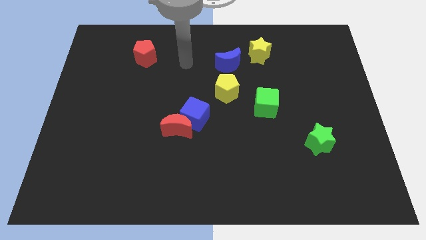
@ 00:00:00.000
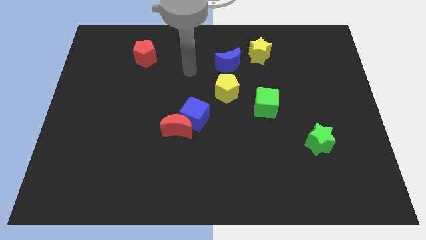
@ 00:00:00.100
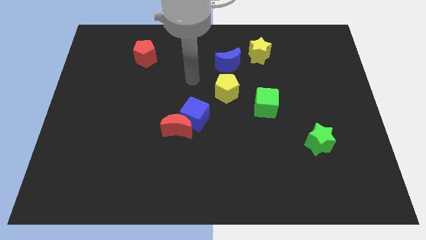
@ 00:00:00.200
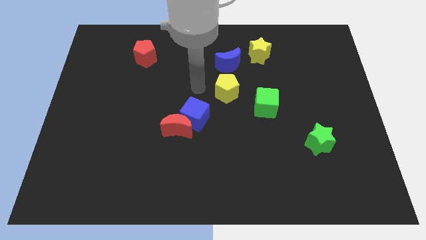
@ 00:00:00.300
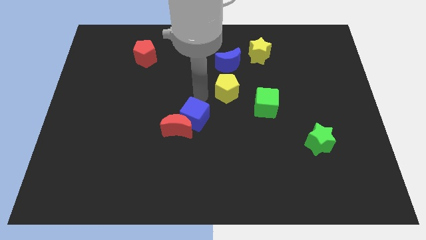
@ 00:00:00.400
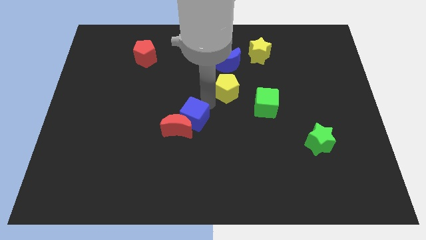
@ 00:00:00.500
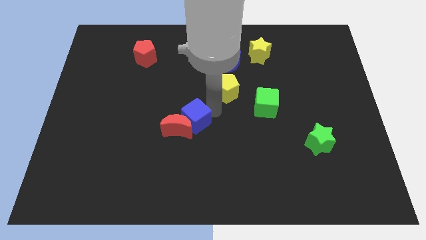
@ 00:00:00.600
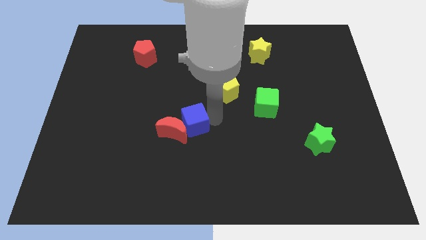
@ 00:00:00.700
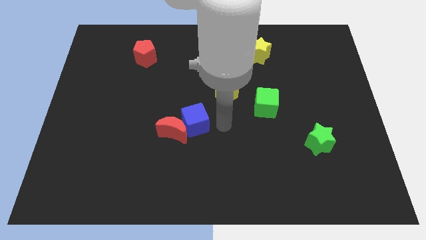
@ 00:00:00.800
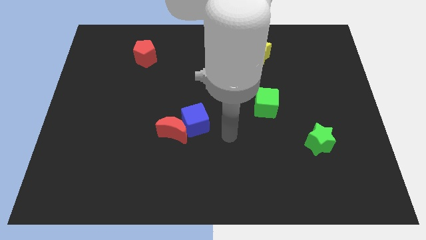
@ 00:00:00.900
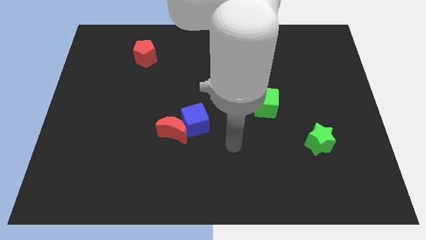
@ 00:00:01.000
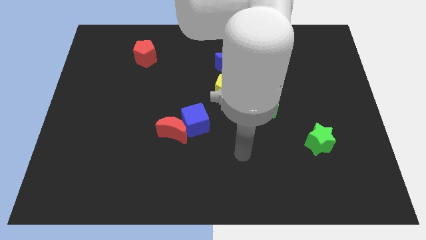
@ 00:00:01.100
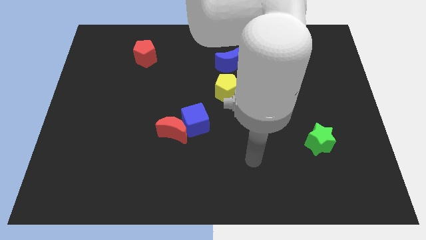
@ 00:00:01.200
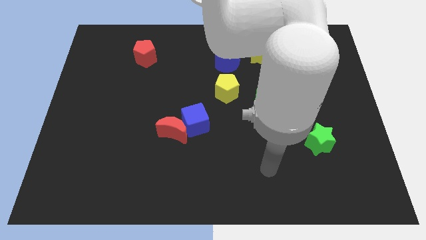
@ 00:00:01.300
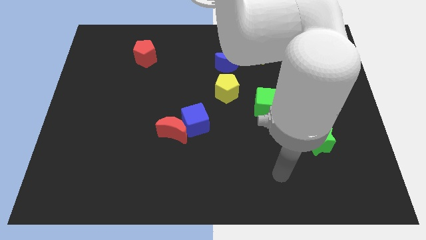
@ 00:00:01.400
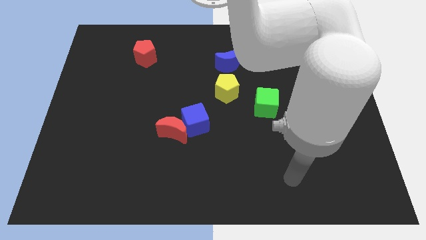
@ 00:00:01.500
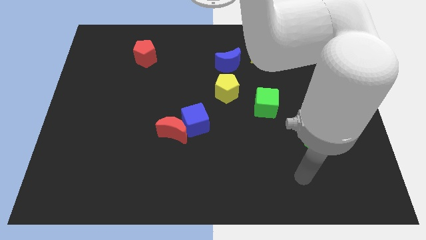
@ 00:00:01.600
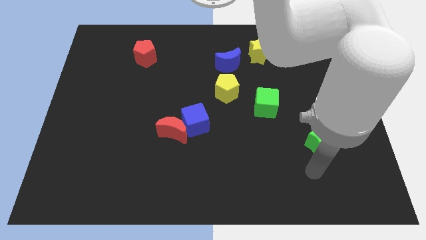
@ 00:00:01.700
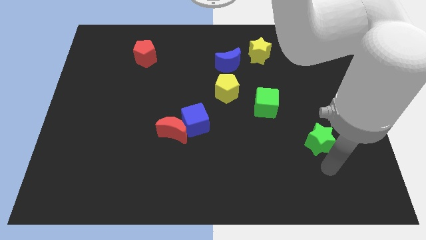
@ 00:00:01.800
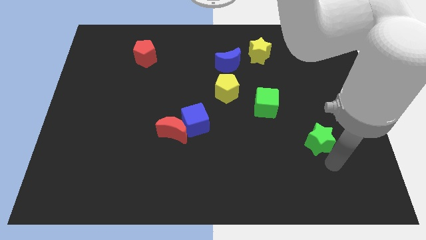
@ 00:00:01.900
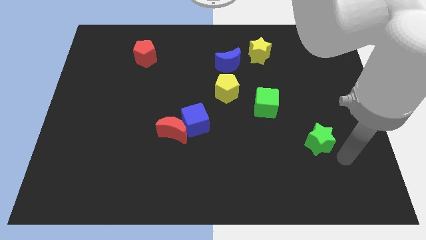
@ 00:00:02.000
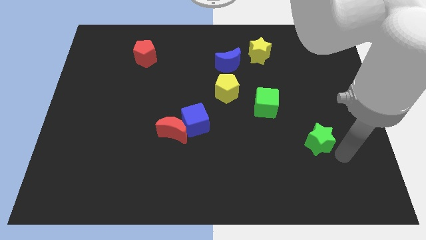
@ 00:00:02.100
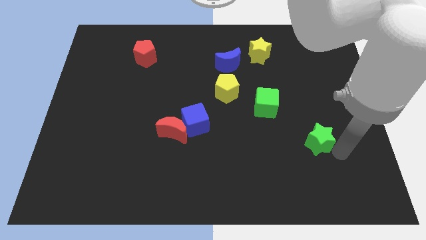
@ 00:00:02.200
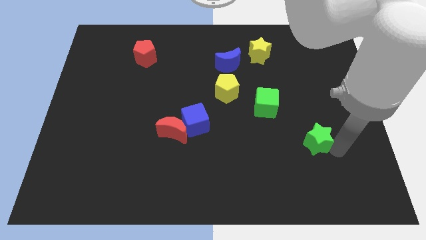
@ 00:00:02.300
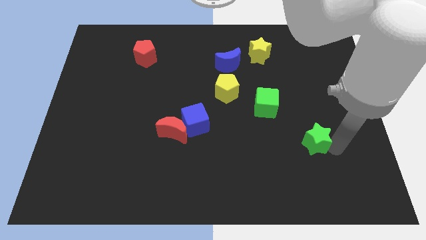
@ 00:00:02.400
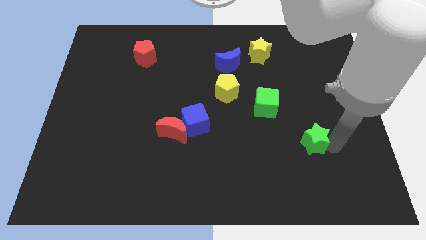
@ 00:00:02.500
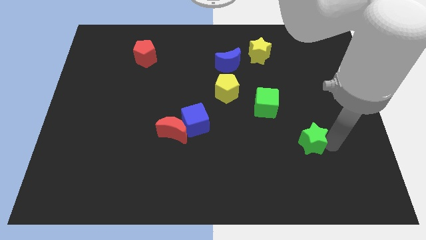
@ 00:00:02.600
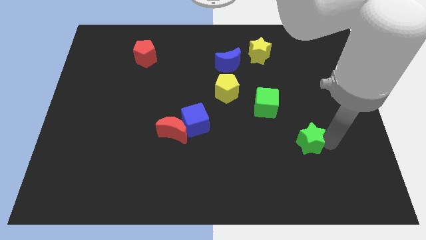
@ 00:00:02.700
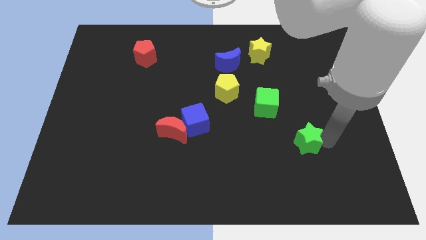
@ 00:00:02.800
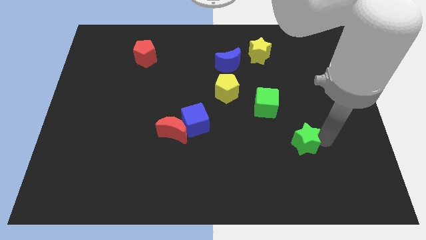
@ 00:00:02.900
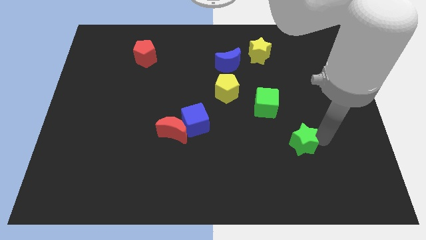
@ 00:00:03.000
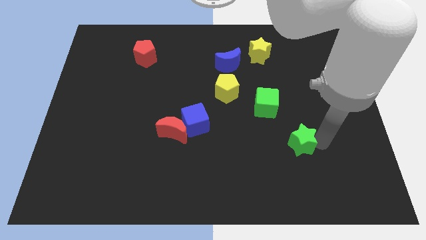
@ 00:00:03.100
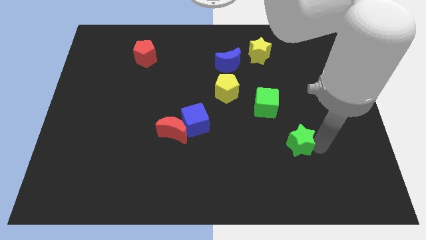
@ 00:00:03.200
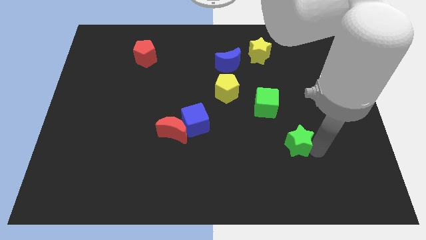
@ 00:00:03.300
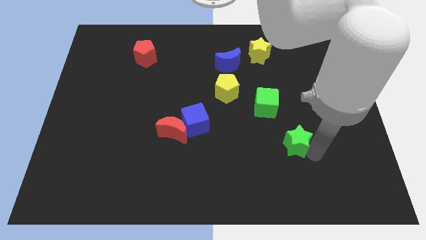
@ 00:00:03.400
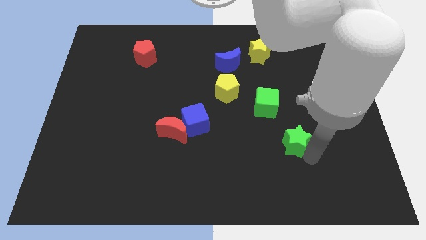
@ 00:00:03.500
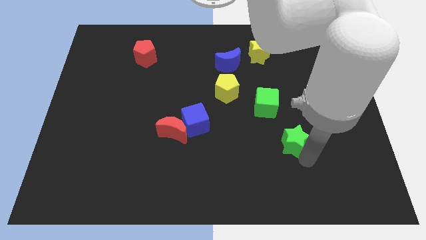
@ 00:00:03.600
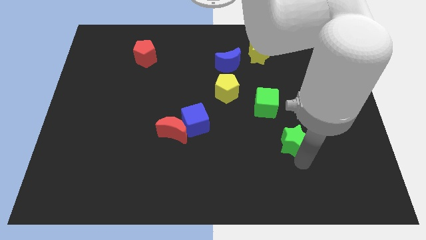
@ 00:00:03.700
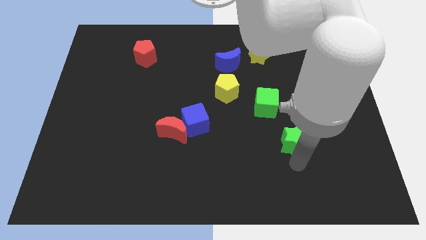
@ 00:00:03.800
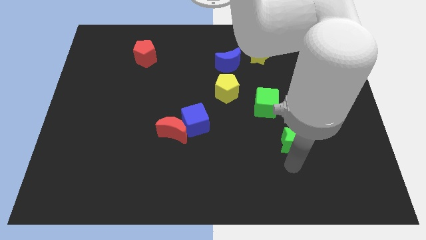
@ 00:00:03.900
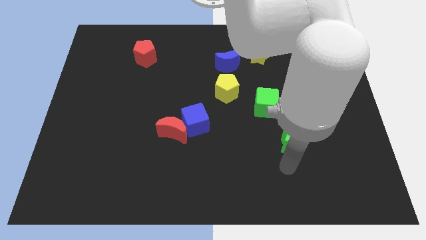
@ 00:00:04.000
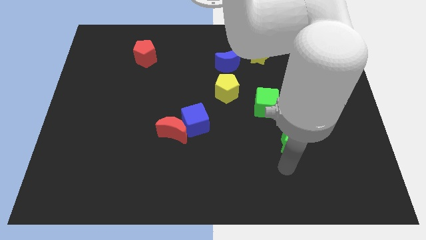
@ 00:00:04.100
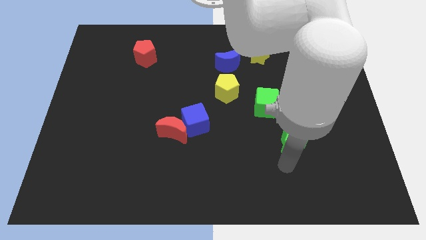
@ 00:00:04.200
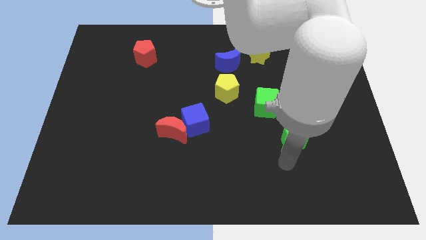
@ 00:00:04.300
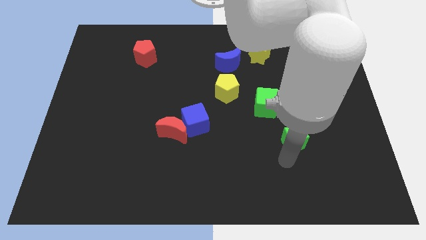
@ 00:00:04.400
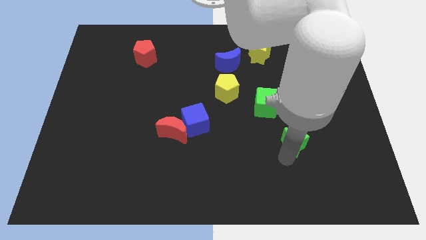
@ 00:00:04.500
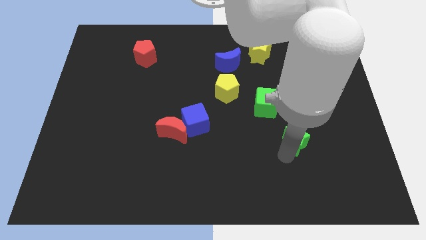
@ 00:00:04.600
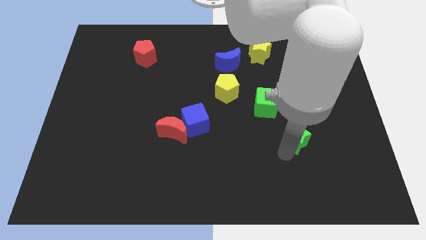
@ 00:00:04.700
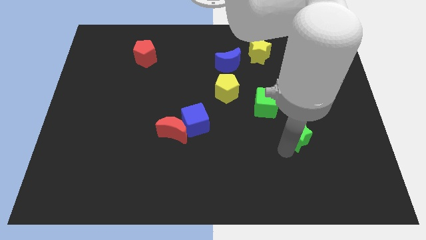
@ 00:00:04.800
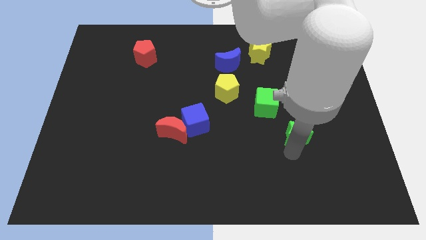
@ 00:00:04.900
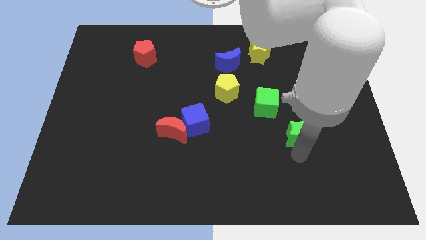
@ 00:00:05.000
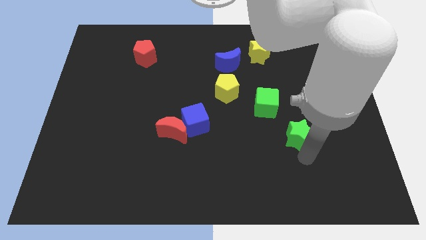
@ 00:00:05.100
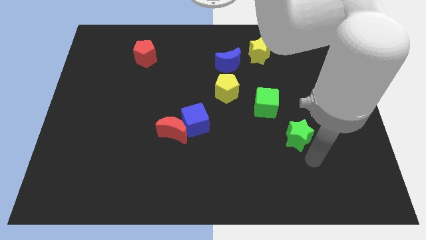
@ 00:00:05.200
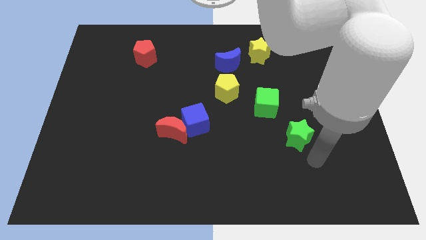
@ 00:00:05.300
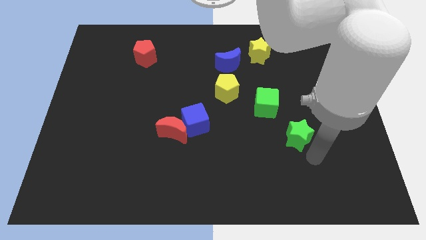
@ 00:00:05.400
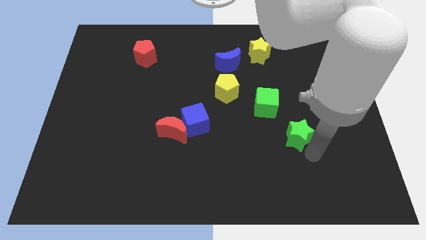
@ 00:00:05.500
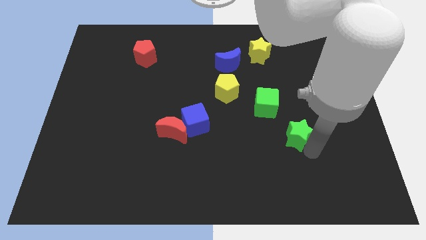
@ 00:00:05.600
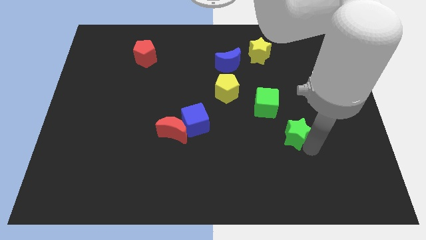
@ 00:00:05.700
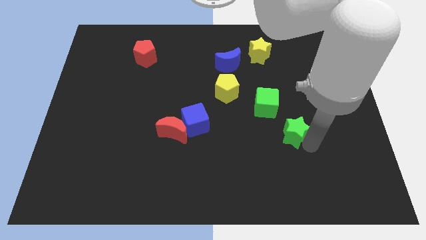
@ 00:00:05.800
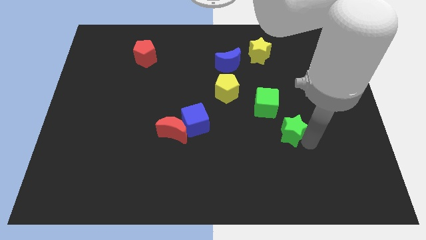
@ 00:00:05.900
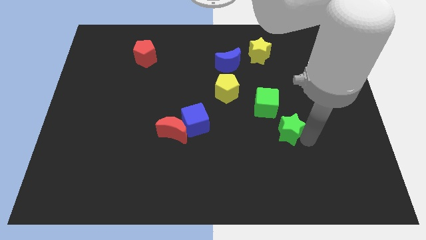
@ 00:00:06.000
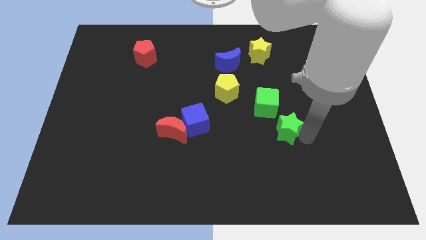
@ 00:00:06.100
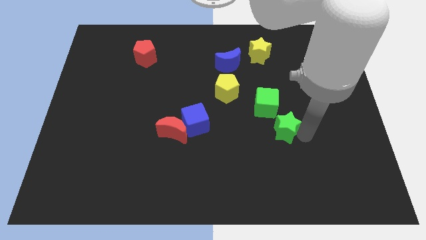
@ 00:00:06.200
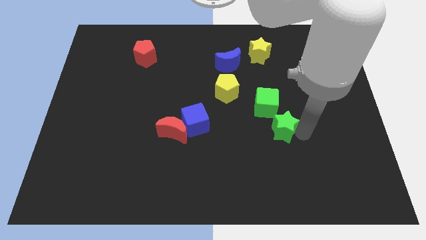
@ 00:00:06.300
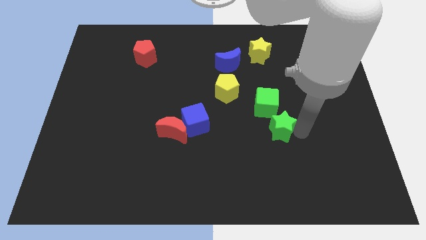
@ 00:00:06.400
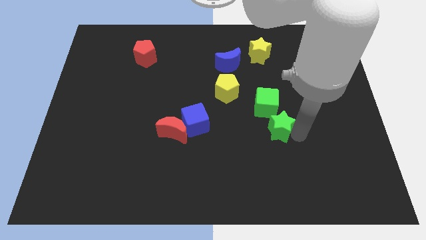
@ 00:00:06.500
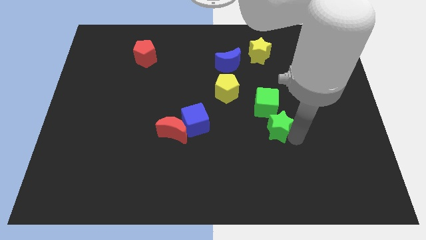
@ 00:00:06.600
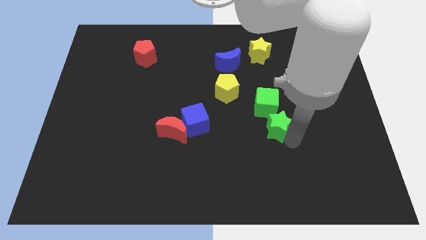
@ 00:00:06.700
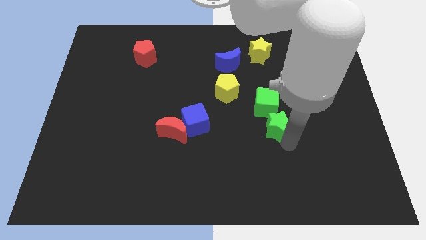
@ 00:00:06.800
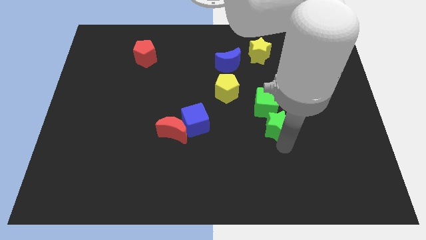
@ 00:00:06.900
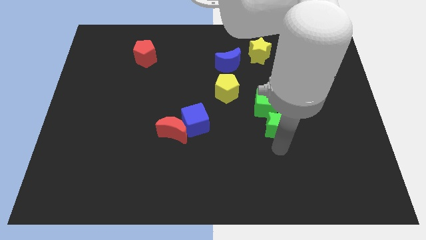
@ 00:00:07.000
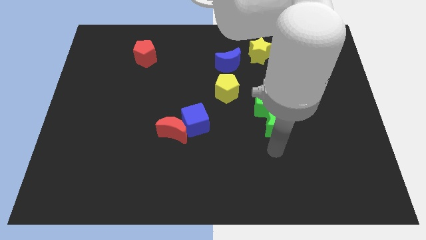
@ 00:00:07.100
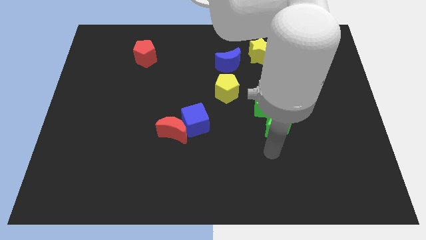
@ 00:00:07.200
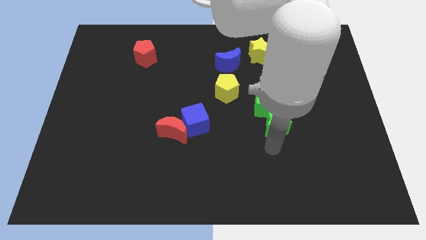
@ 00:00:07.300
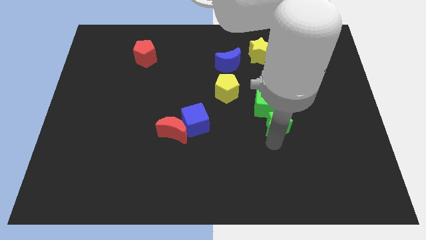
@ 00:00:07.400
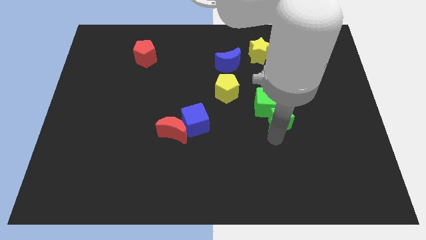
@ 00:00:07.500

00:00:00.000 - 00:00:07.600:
move the green star to the green cube

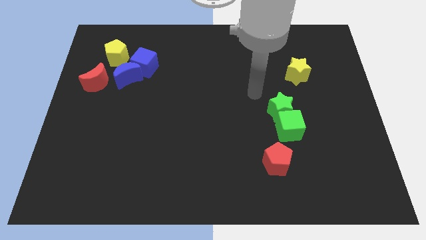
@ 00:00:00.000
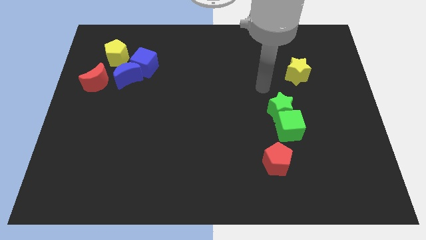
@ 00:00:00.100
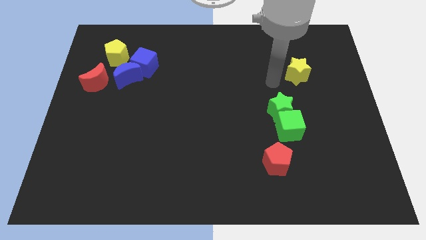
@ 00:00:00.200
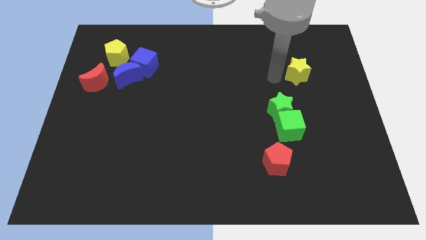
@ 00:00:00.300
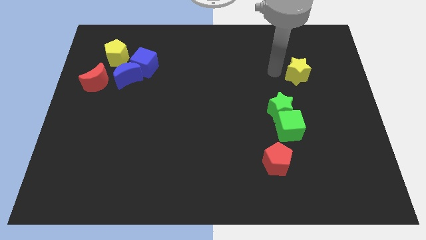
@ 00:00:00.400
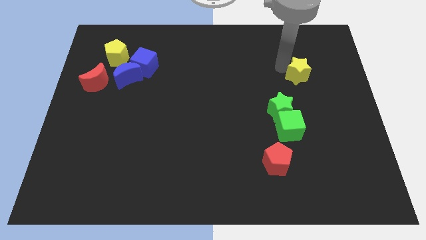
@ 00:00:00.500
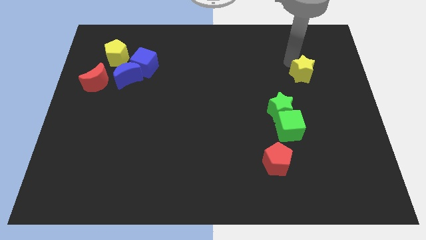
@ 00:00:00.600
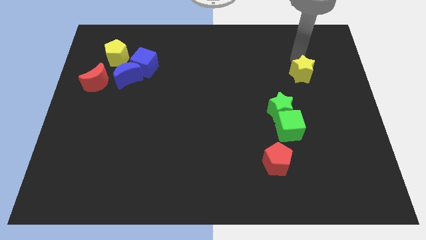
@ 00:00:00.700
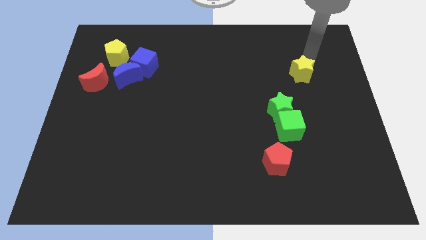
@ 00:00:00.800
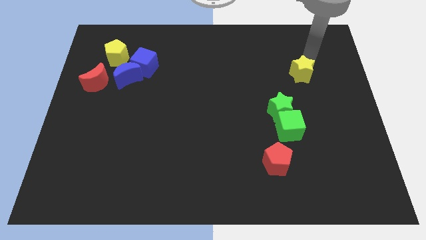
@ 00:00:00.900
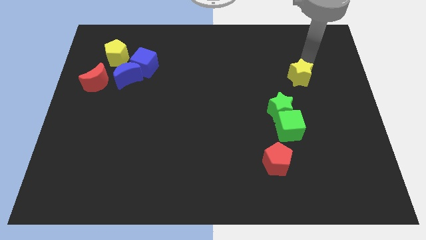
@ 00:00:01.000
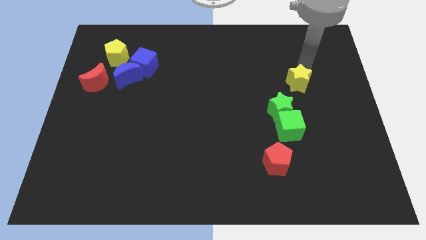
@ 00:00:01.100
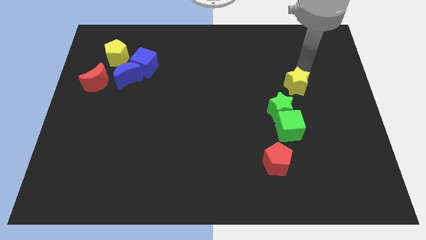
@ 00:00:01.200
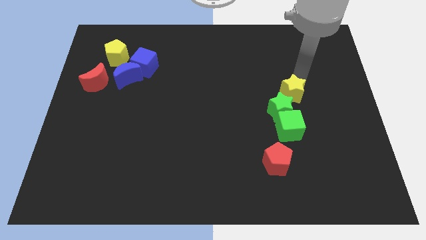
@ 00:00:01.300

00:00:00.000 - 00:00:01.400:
push the yellow star towards the green star
